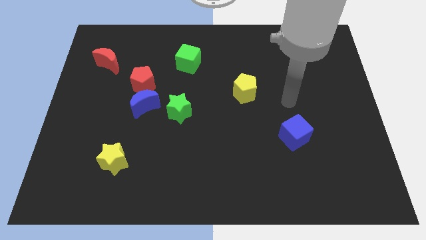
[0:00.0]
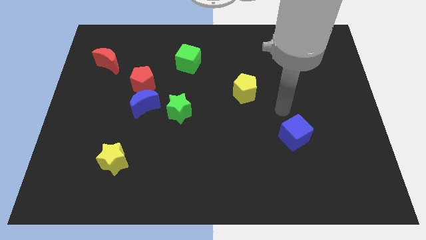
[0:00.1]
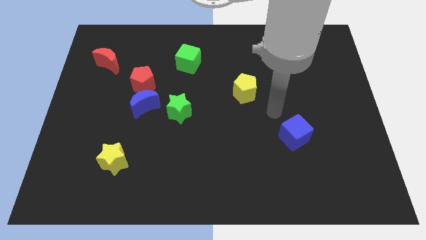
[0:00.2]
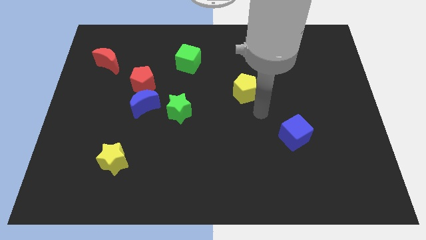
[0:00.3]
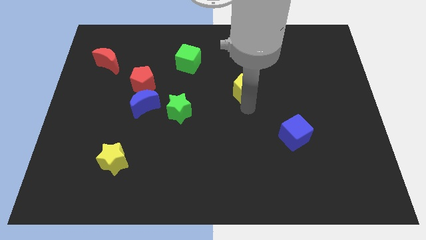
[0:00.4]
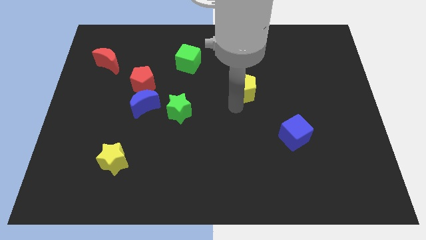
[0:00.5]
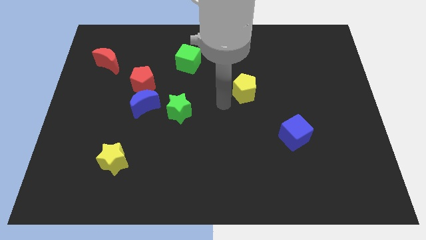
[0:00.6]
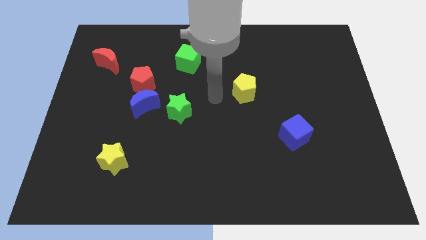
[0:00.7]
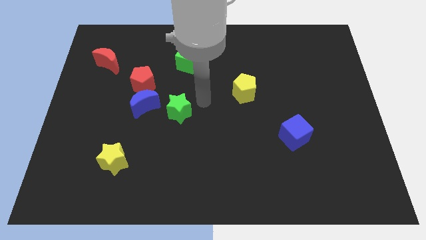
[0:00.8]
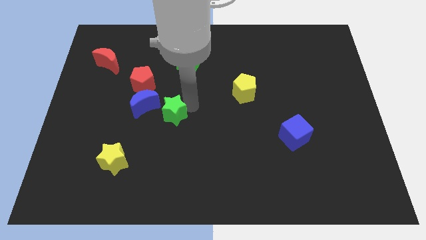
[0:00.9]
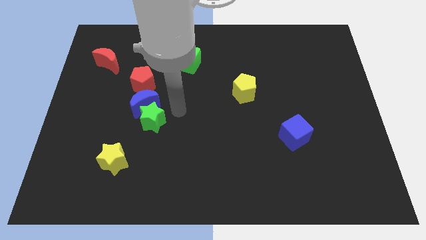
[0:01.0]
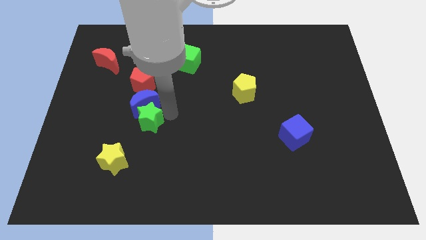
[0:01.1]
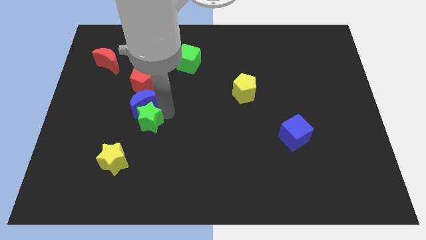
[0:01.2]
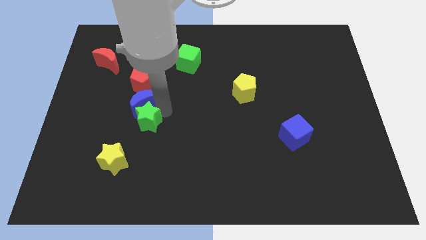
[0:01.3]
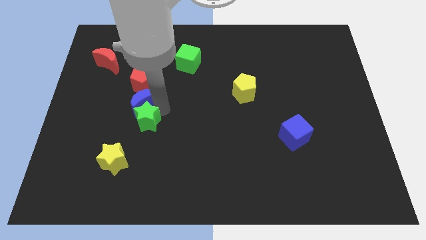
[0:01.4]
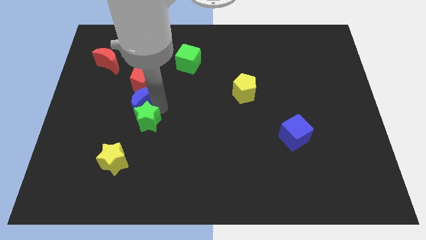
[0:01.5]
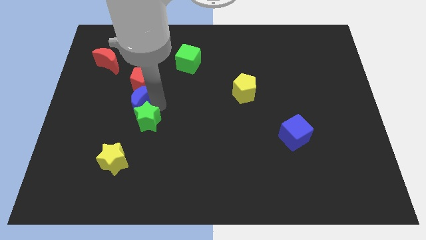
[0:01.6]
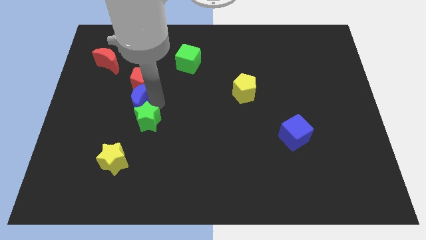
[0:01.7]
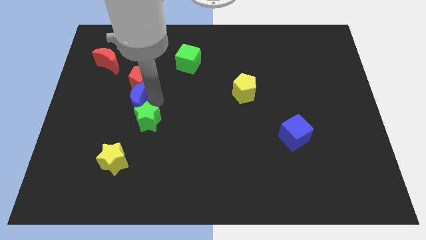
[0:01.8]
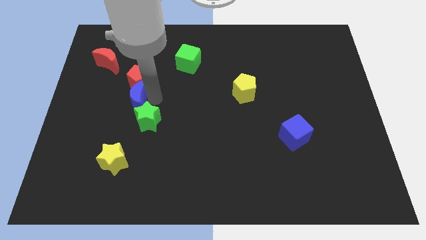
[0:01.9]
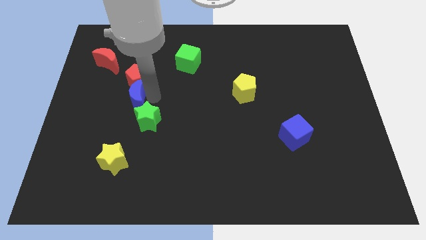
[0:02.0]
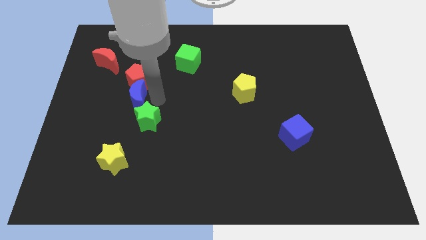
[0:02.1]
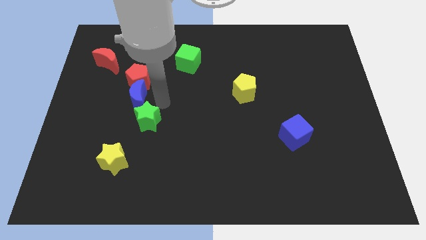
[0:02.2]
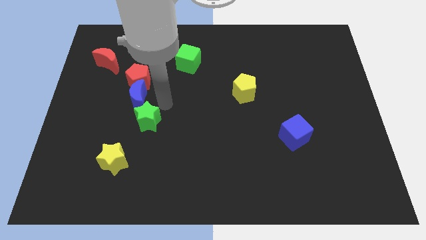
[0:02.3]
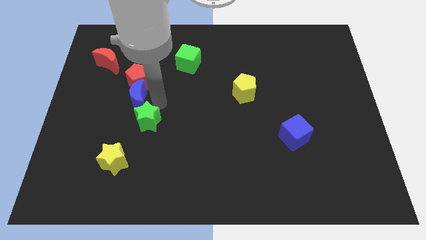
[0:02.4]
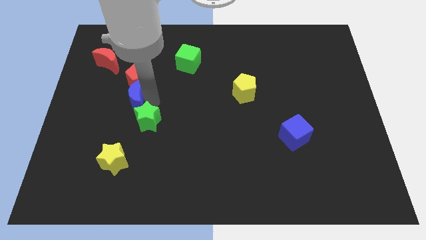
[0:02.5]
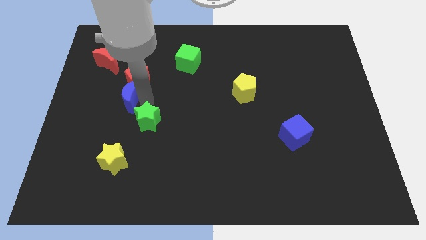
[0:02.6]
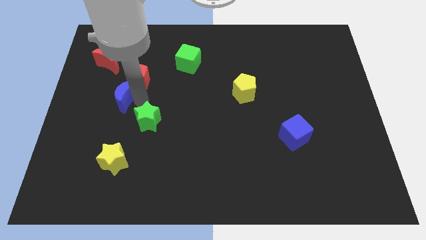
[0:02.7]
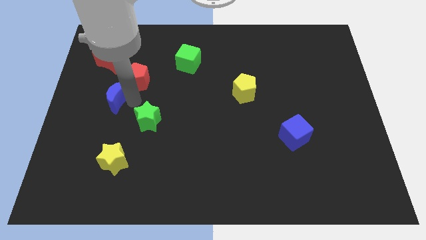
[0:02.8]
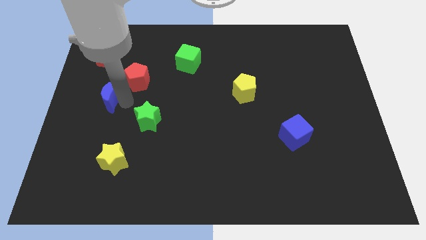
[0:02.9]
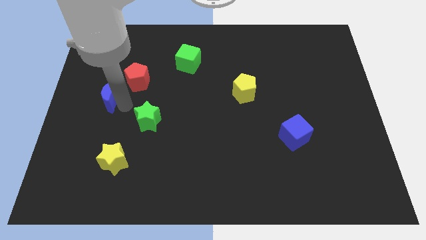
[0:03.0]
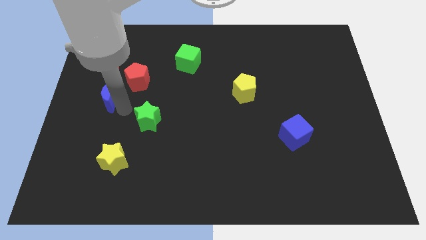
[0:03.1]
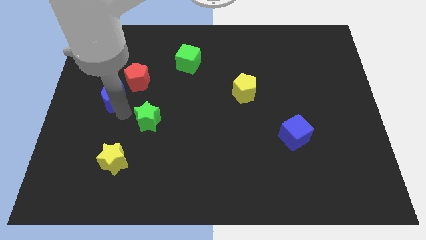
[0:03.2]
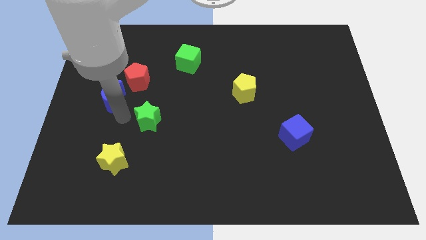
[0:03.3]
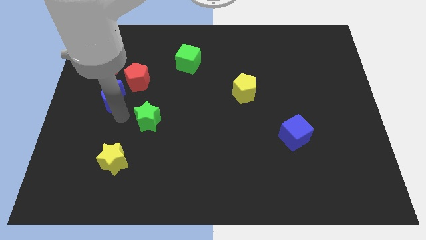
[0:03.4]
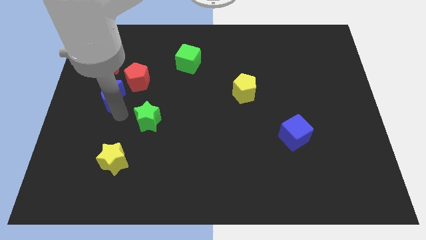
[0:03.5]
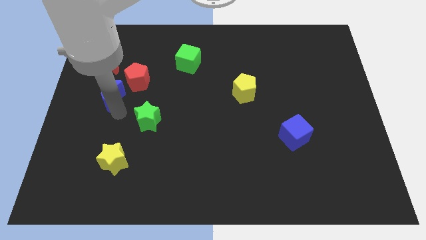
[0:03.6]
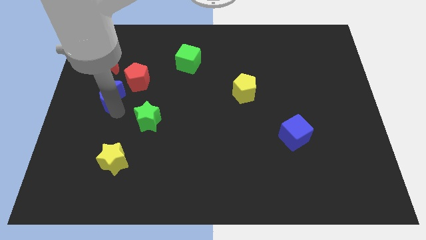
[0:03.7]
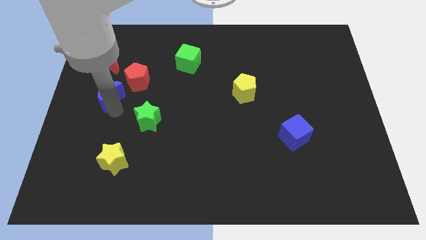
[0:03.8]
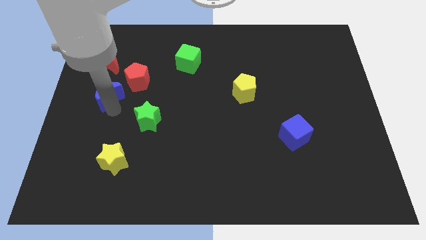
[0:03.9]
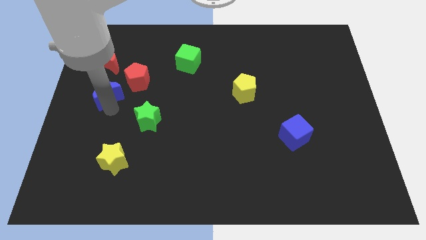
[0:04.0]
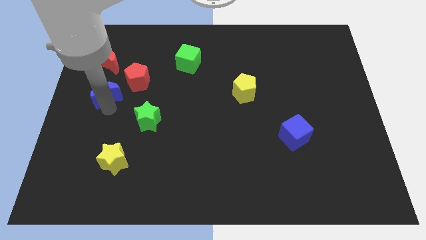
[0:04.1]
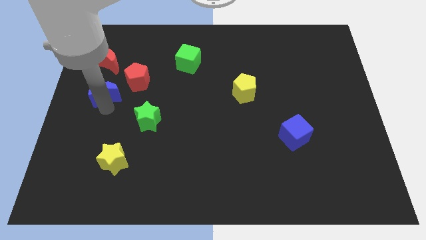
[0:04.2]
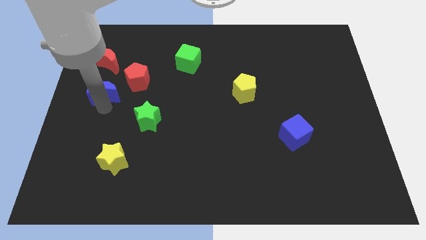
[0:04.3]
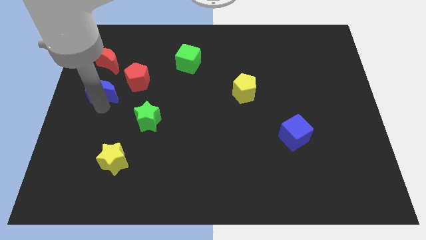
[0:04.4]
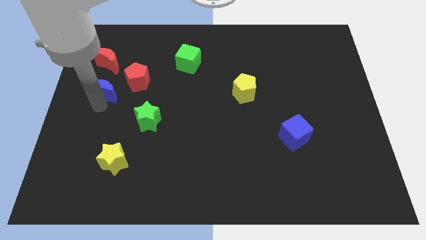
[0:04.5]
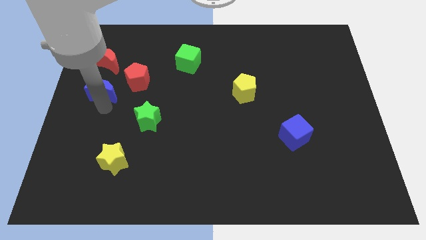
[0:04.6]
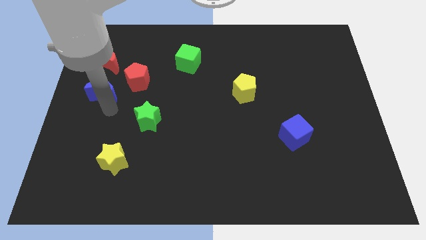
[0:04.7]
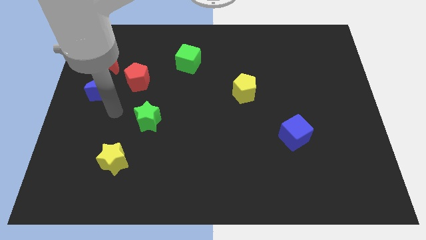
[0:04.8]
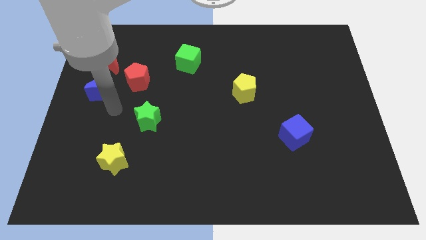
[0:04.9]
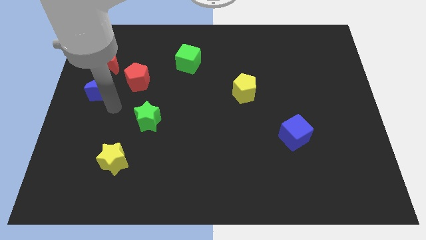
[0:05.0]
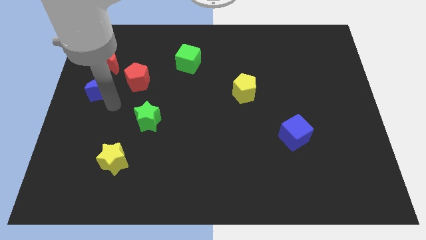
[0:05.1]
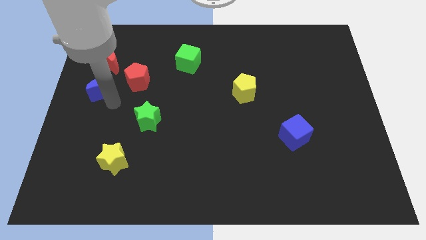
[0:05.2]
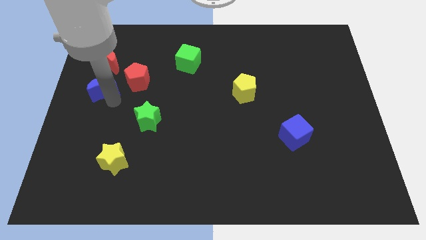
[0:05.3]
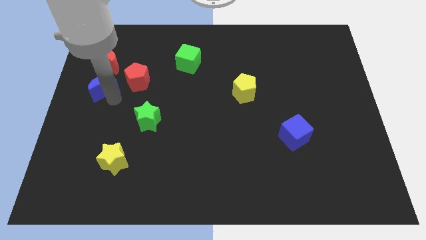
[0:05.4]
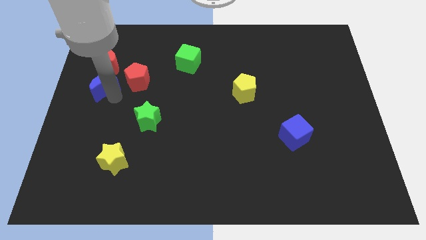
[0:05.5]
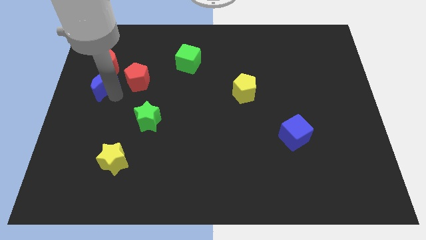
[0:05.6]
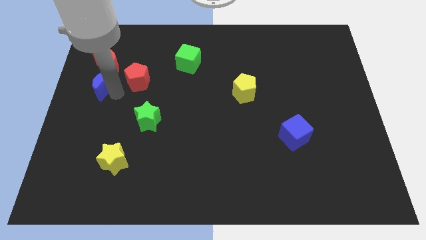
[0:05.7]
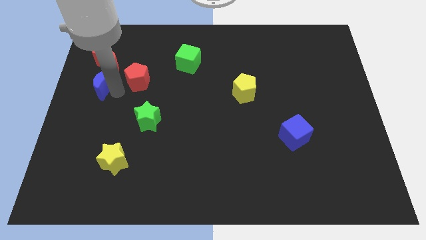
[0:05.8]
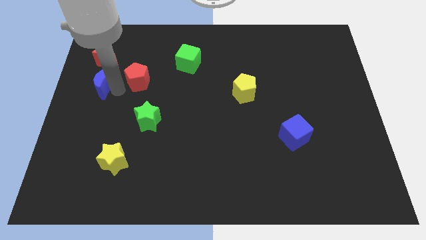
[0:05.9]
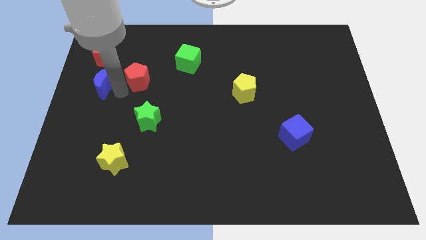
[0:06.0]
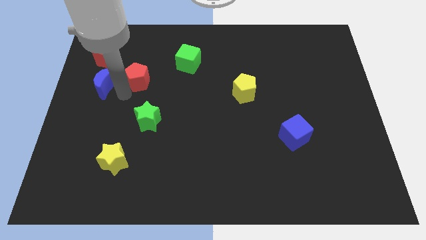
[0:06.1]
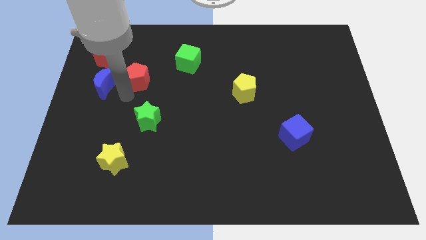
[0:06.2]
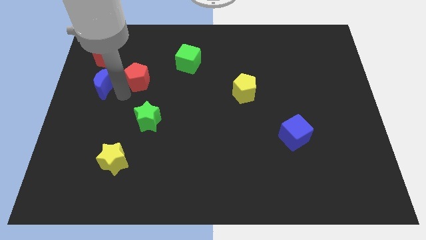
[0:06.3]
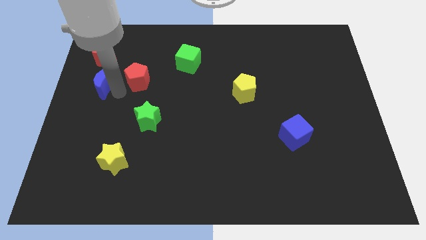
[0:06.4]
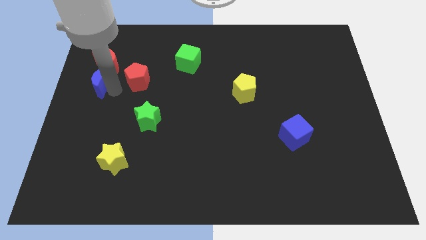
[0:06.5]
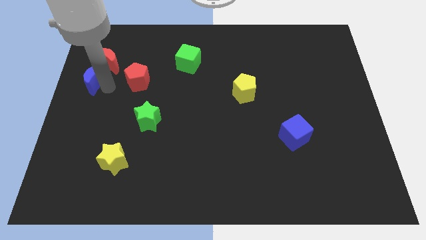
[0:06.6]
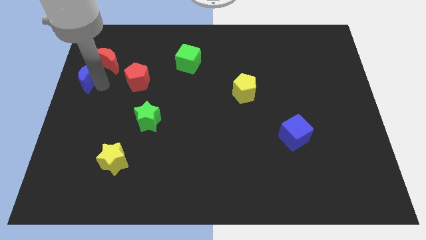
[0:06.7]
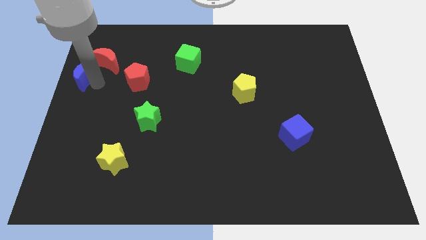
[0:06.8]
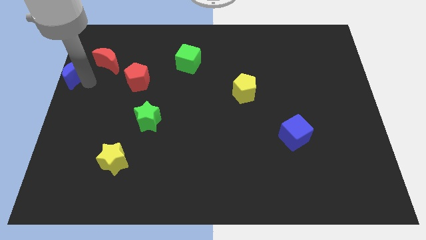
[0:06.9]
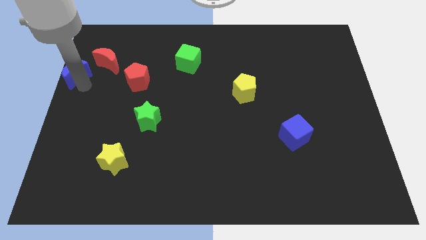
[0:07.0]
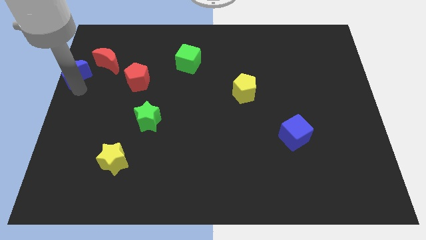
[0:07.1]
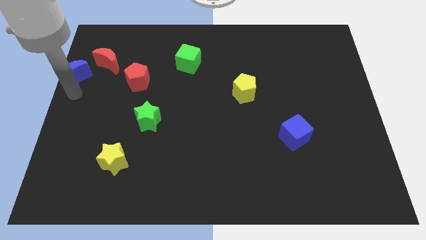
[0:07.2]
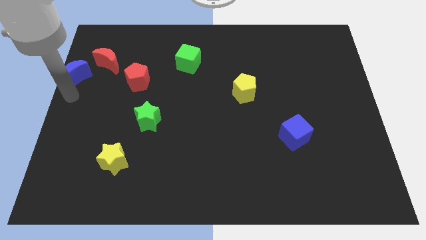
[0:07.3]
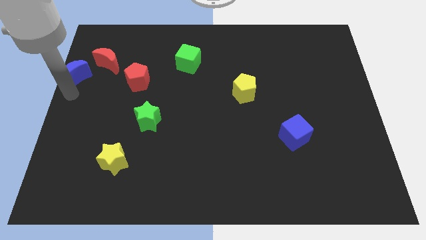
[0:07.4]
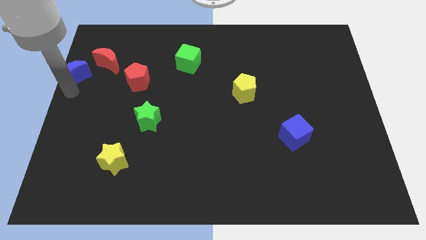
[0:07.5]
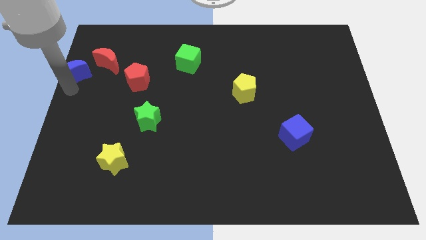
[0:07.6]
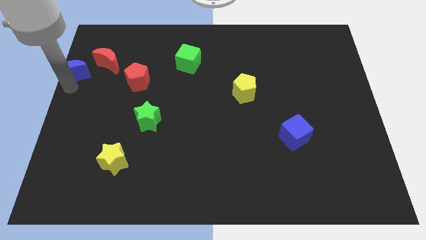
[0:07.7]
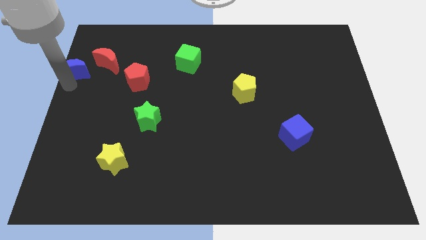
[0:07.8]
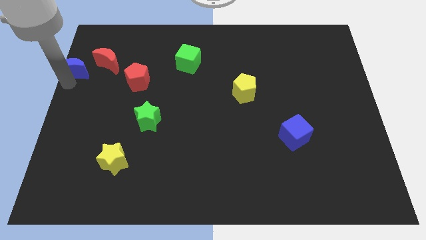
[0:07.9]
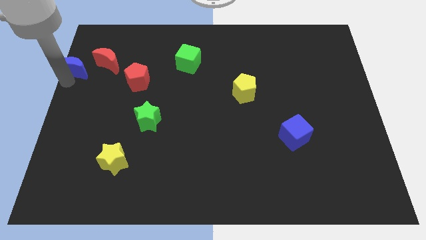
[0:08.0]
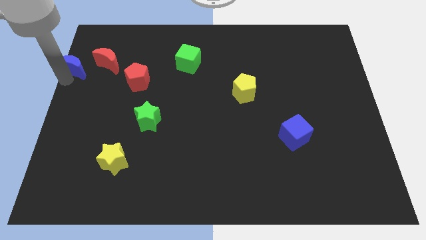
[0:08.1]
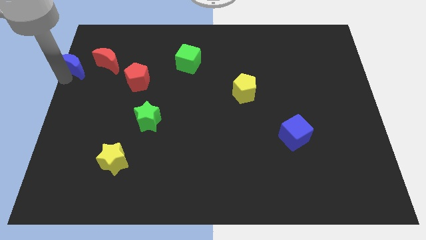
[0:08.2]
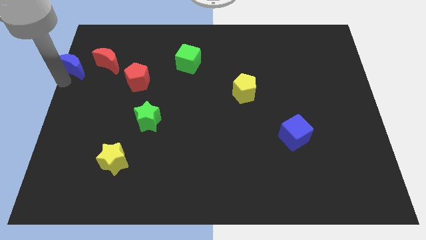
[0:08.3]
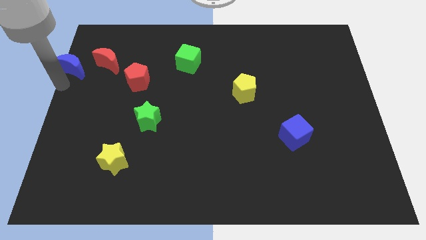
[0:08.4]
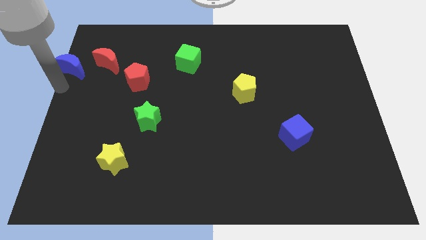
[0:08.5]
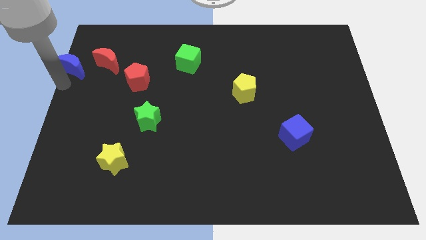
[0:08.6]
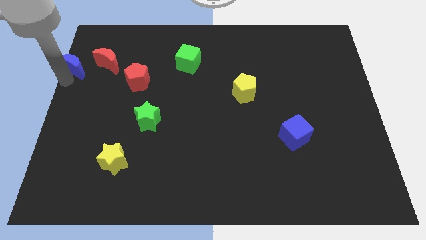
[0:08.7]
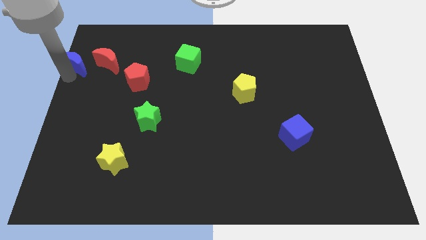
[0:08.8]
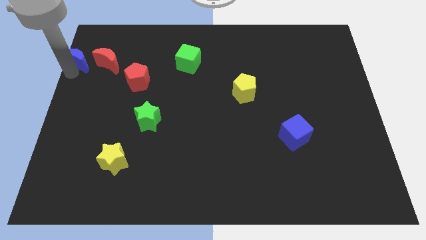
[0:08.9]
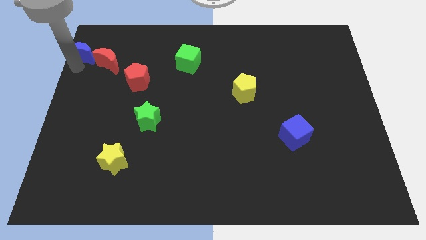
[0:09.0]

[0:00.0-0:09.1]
move the blue moon to the top left of the board
